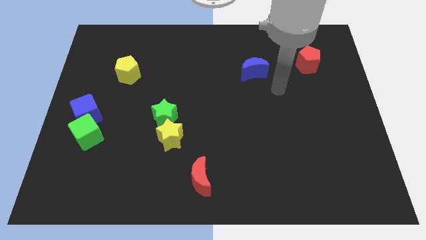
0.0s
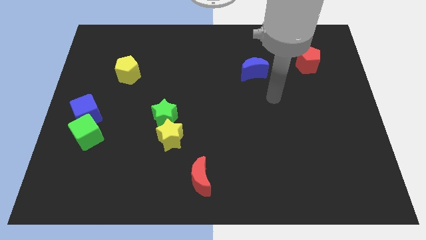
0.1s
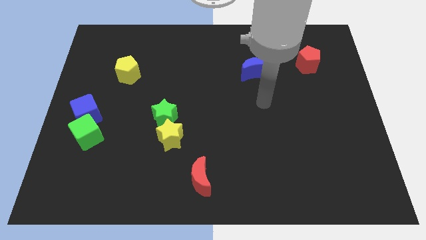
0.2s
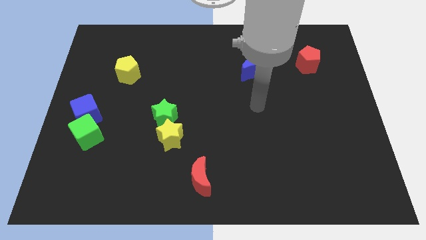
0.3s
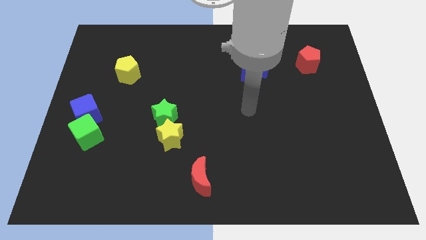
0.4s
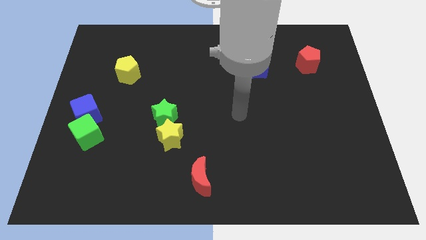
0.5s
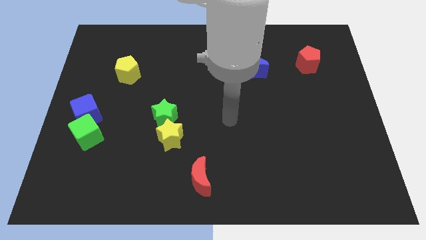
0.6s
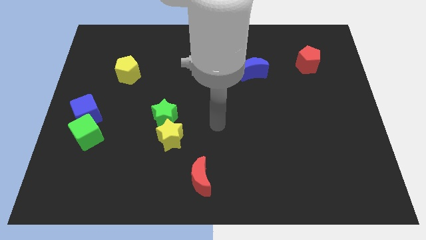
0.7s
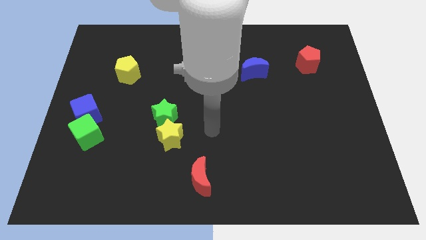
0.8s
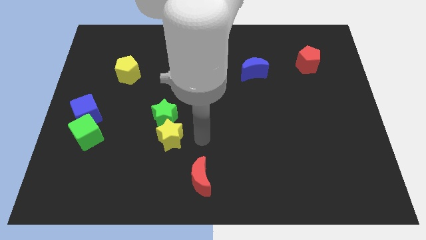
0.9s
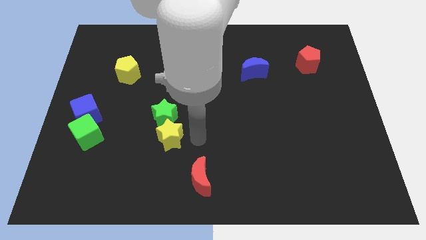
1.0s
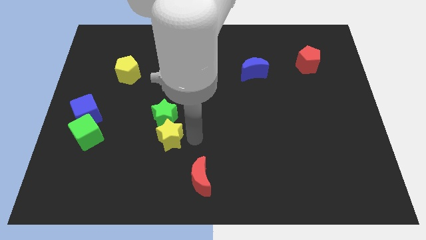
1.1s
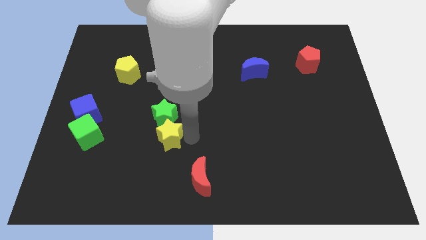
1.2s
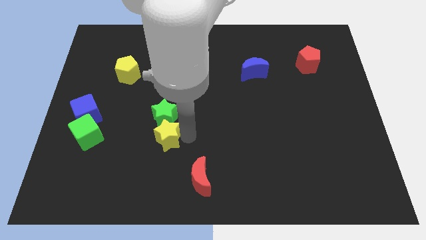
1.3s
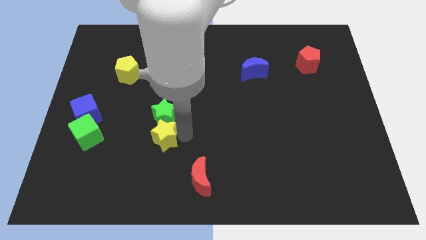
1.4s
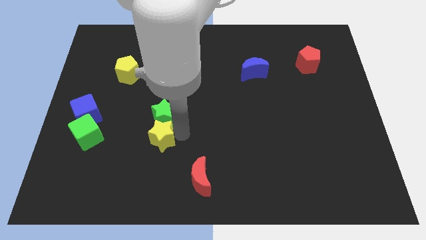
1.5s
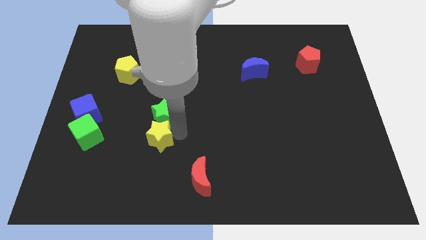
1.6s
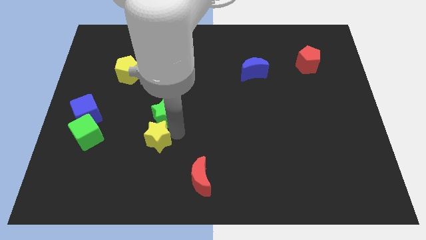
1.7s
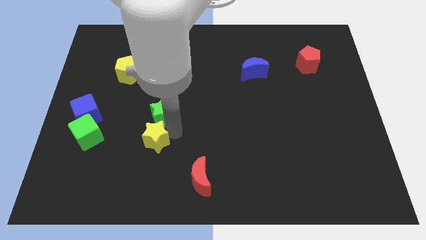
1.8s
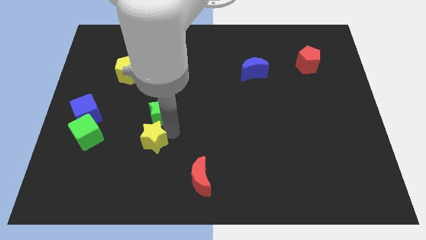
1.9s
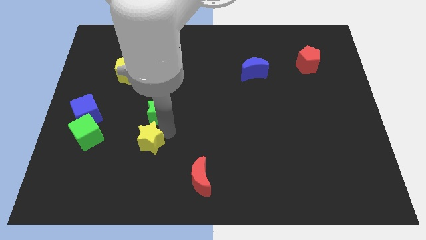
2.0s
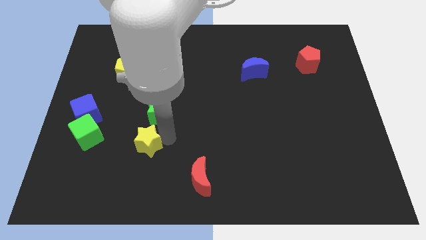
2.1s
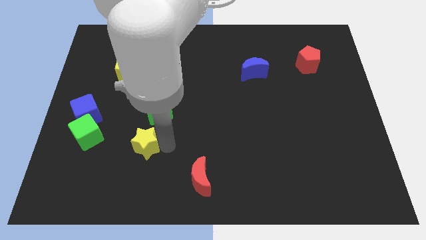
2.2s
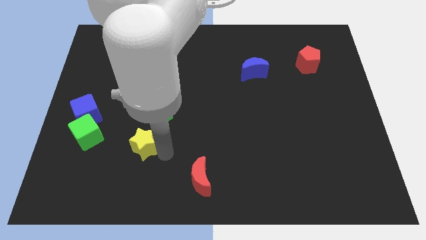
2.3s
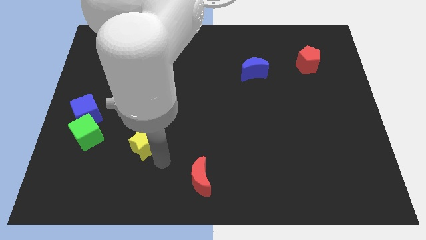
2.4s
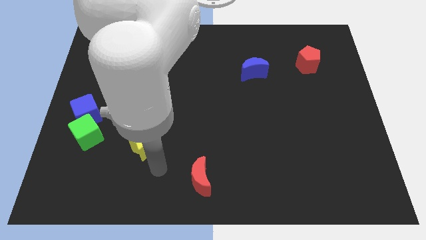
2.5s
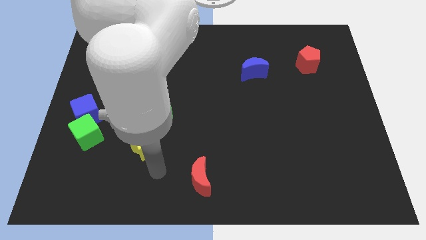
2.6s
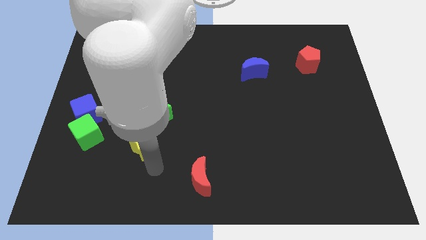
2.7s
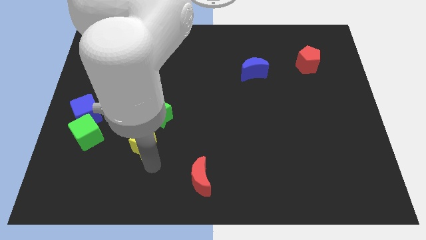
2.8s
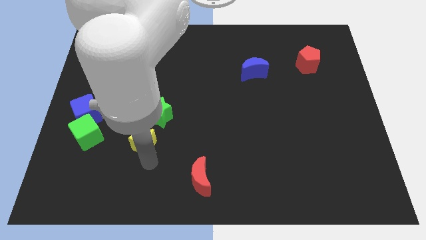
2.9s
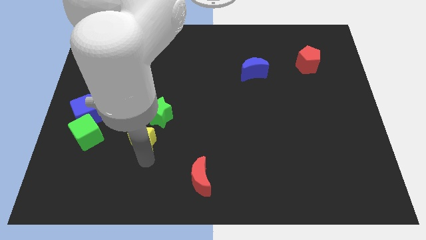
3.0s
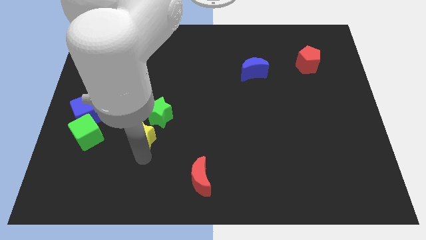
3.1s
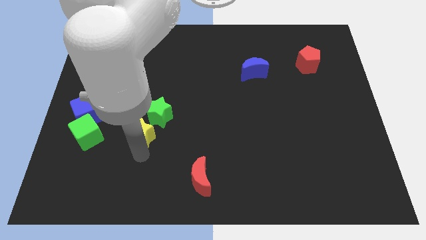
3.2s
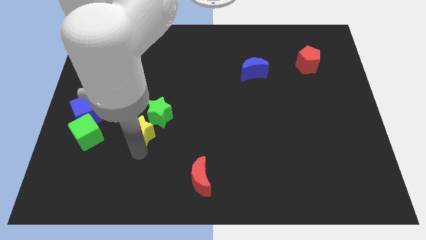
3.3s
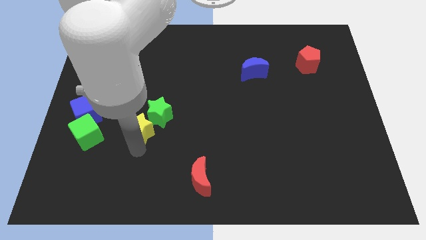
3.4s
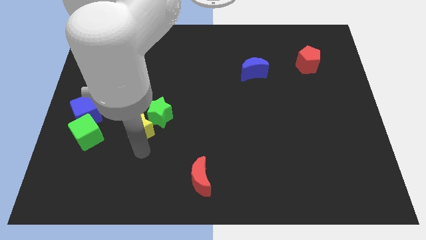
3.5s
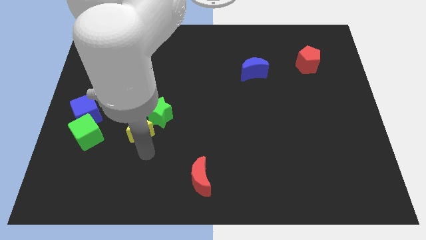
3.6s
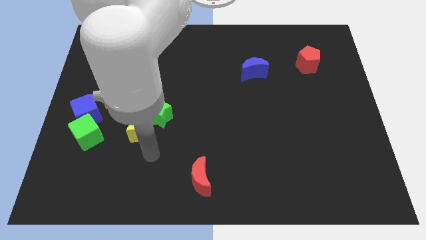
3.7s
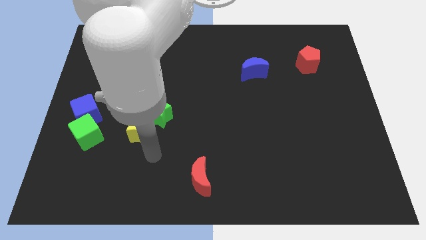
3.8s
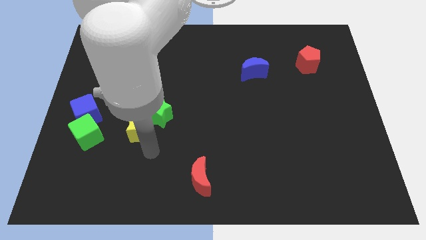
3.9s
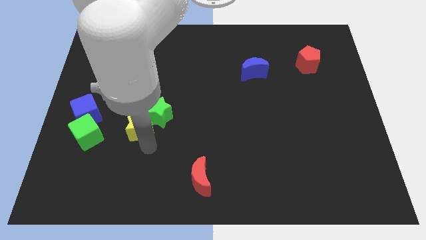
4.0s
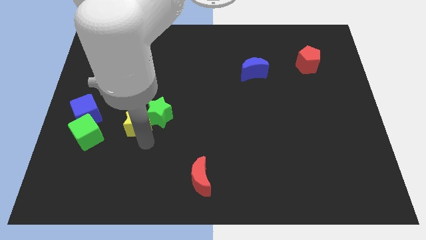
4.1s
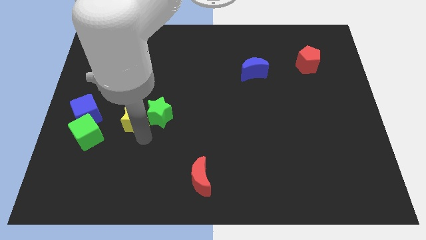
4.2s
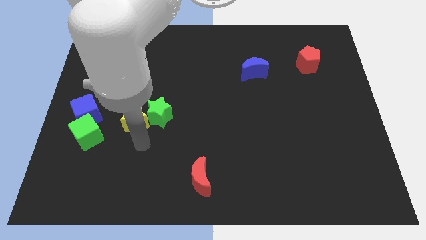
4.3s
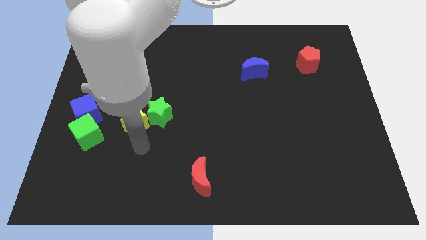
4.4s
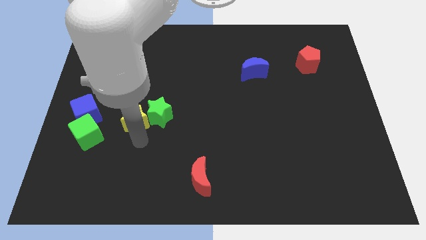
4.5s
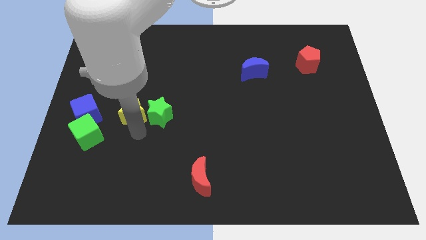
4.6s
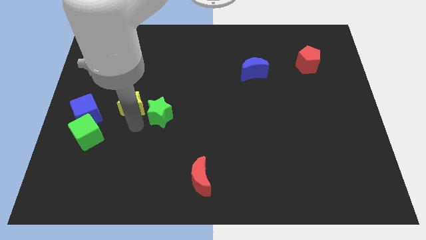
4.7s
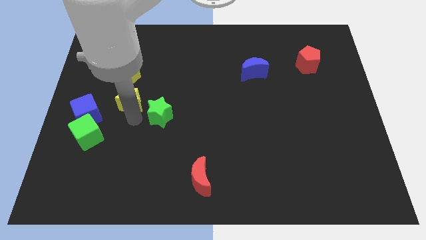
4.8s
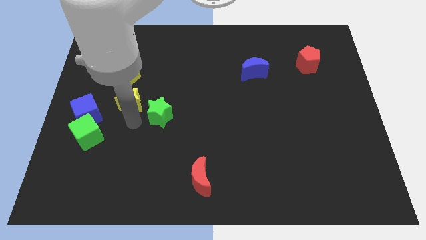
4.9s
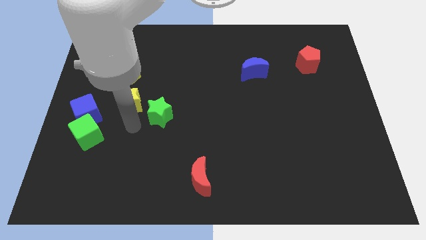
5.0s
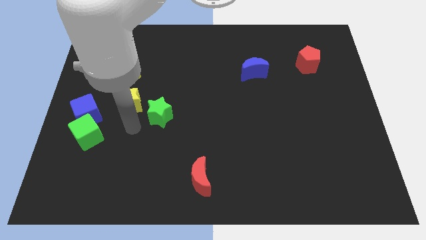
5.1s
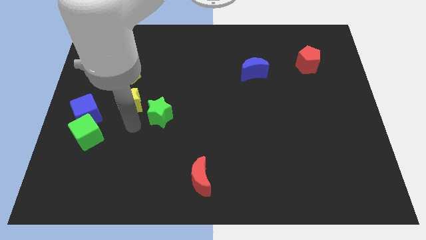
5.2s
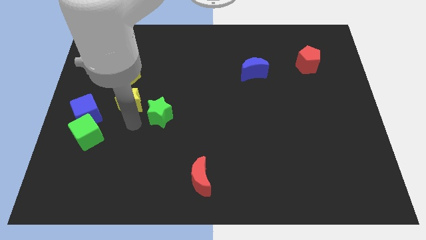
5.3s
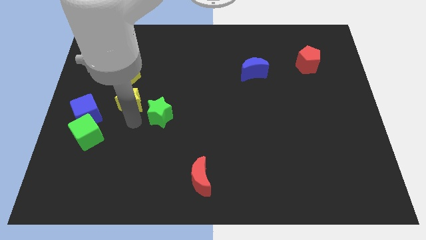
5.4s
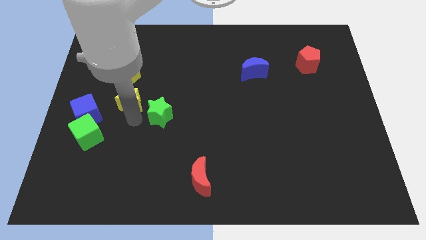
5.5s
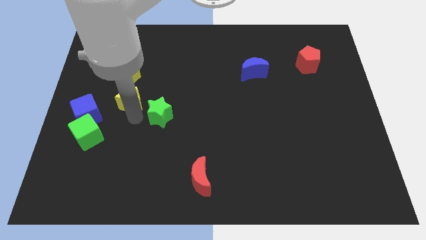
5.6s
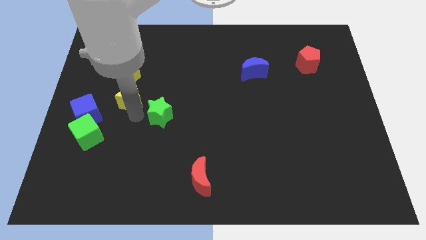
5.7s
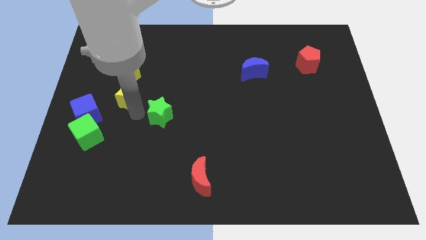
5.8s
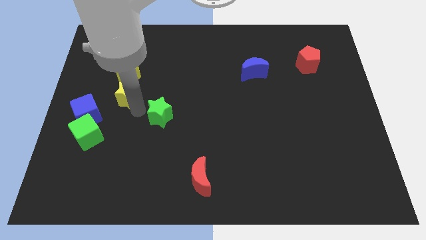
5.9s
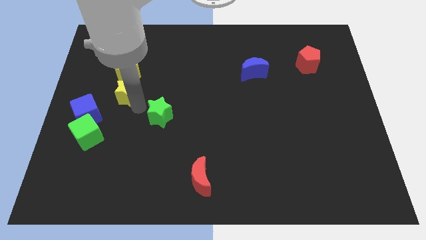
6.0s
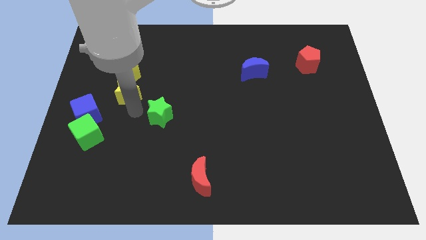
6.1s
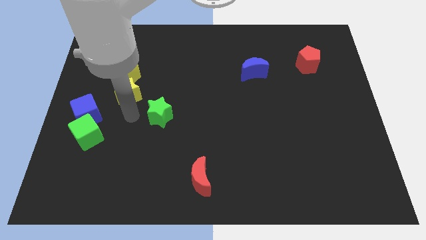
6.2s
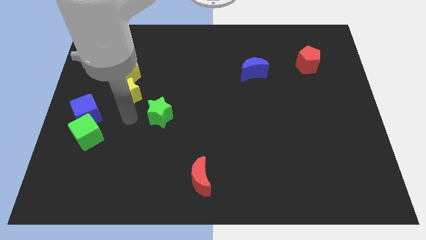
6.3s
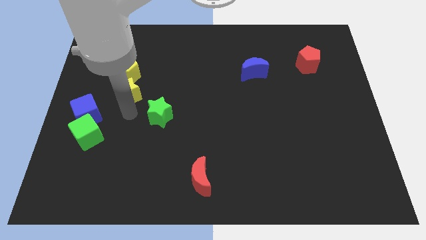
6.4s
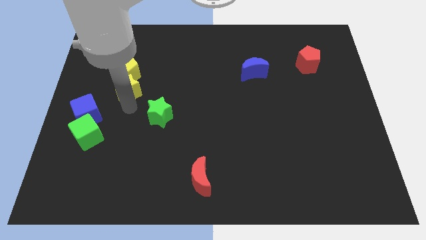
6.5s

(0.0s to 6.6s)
slide the yellow star close to the yellow pentagon

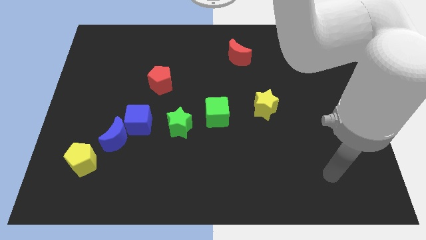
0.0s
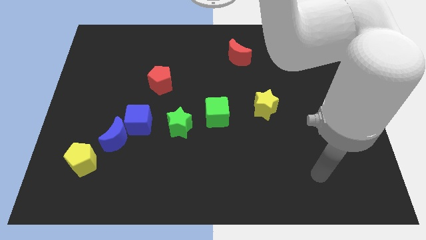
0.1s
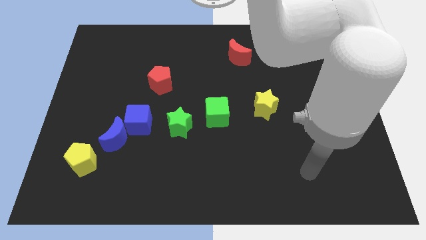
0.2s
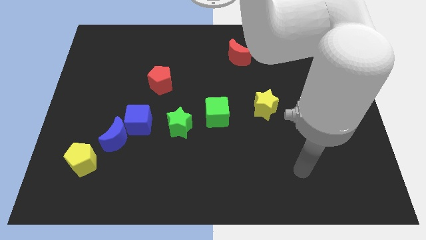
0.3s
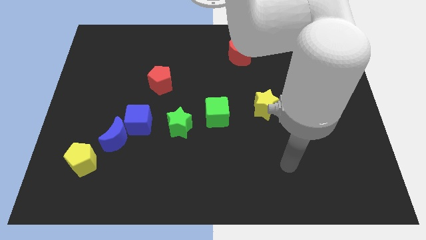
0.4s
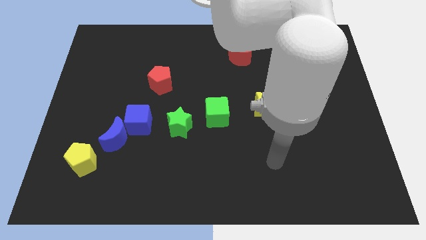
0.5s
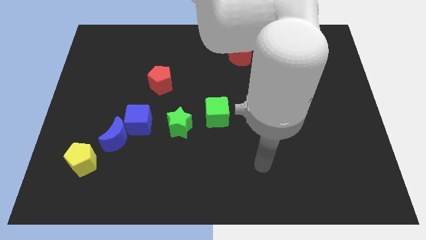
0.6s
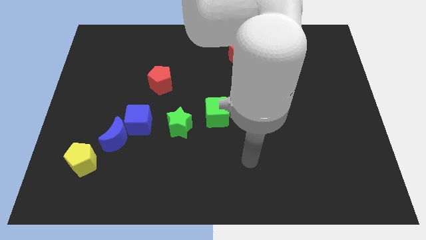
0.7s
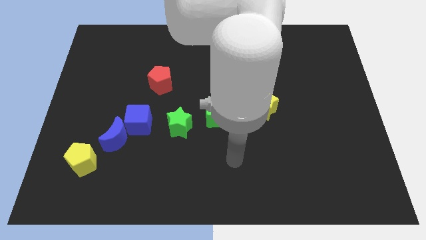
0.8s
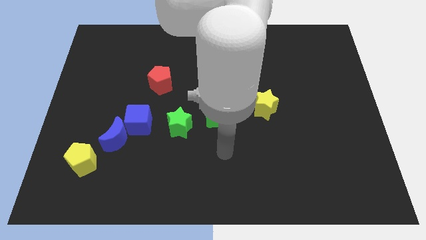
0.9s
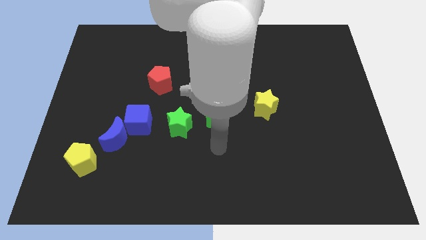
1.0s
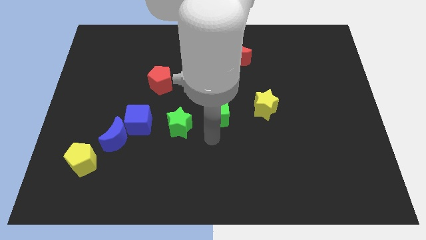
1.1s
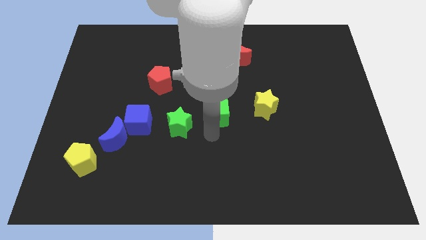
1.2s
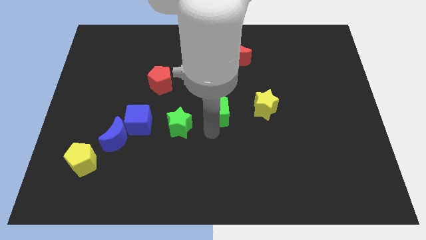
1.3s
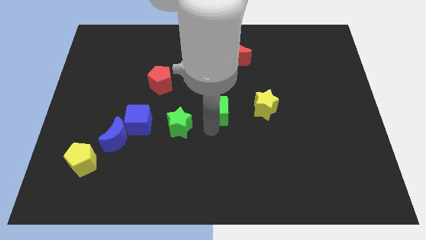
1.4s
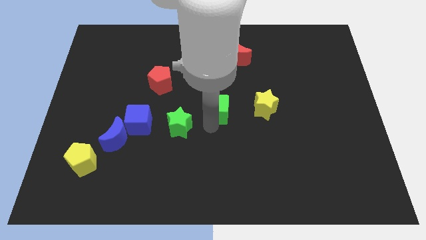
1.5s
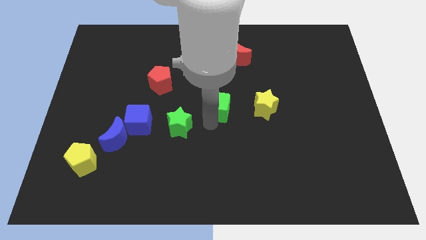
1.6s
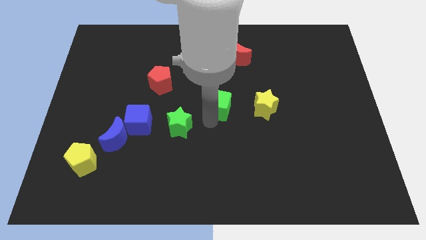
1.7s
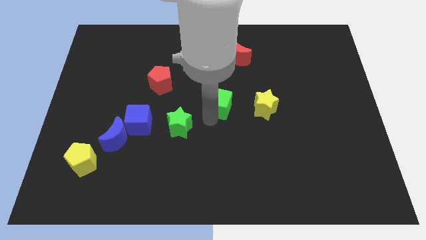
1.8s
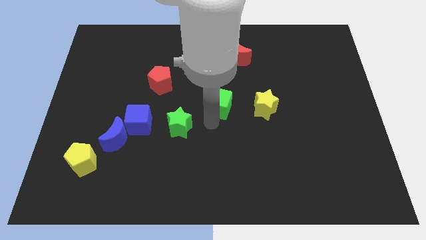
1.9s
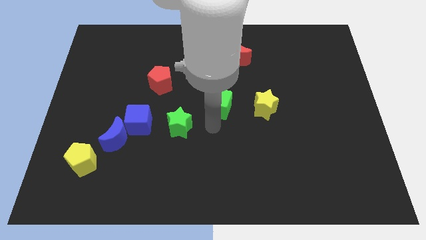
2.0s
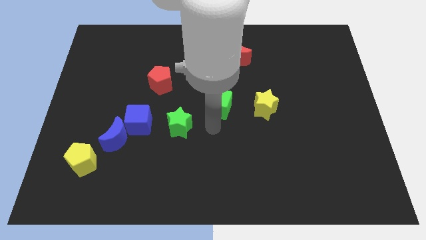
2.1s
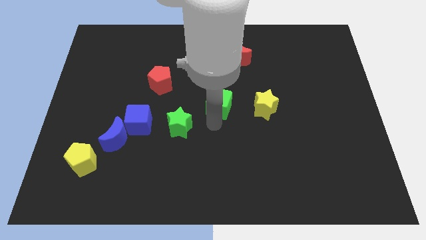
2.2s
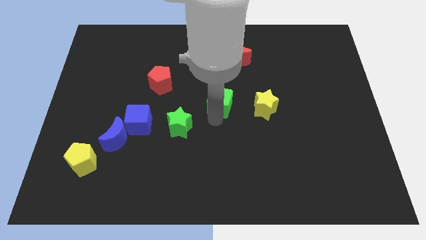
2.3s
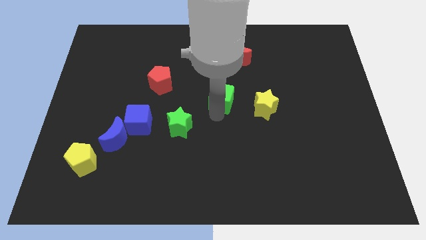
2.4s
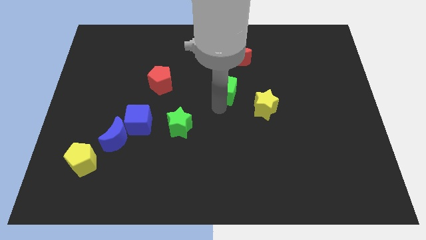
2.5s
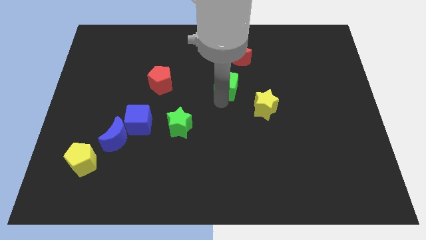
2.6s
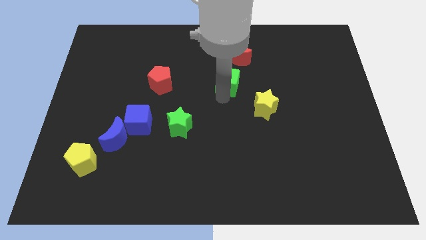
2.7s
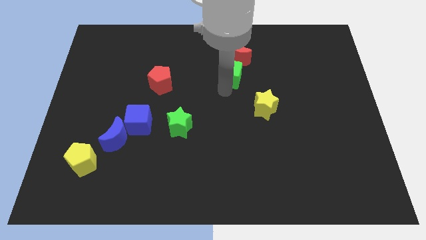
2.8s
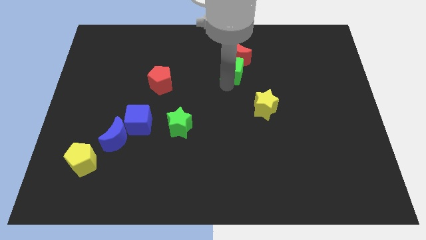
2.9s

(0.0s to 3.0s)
slide the green cube to the red moon
